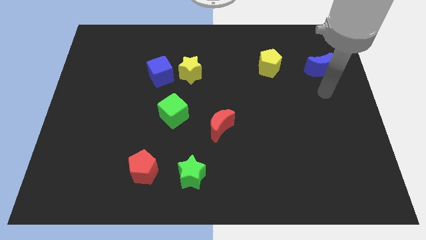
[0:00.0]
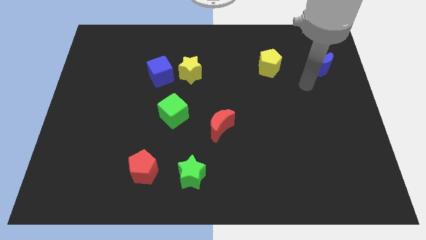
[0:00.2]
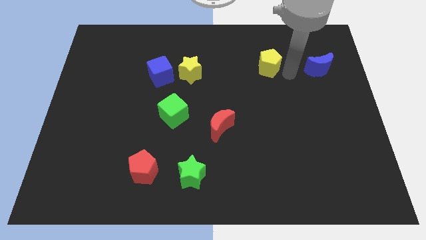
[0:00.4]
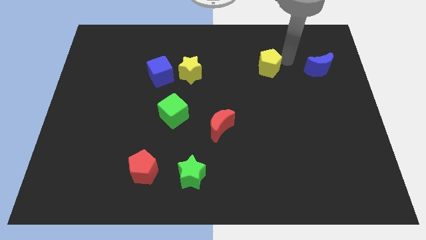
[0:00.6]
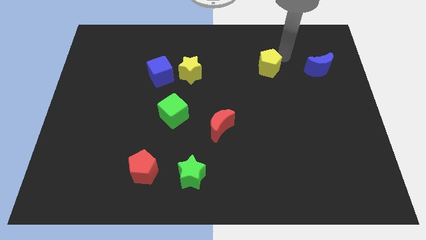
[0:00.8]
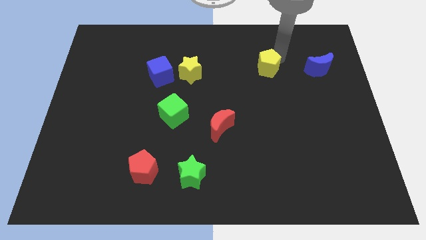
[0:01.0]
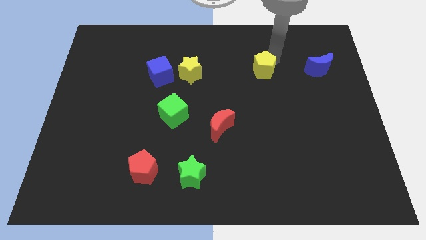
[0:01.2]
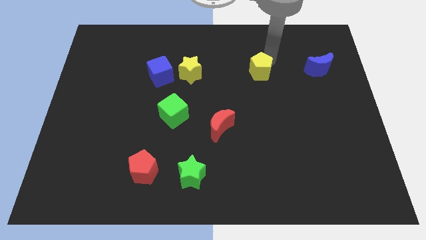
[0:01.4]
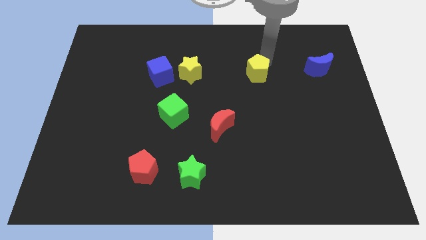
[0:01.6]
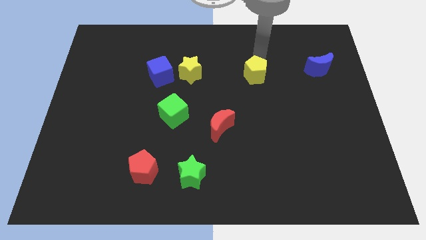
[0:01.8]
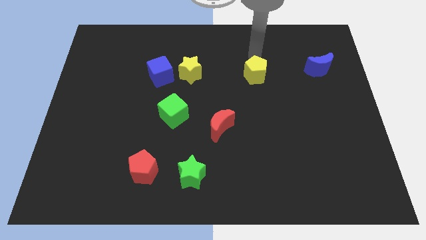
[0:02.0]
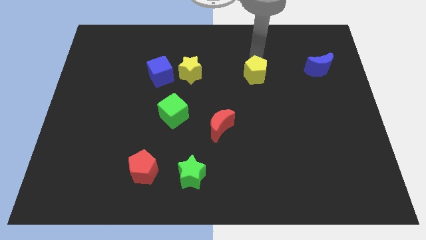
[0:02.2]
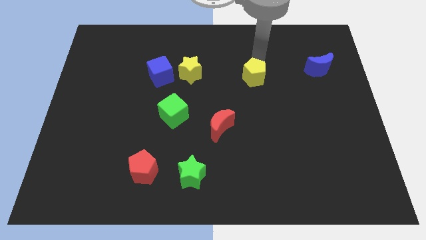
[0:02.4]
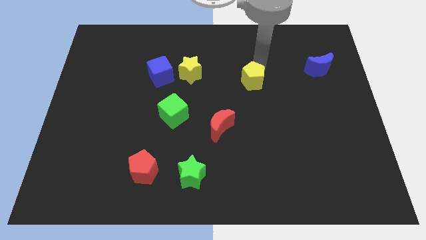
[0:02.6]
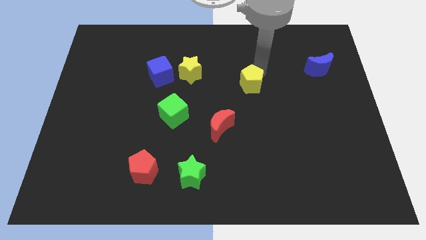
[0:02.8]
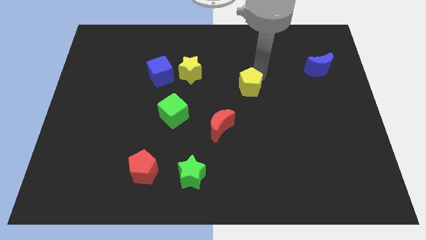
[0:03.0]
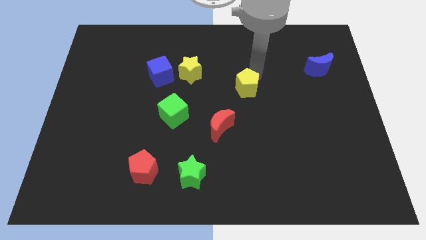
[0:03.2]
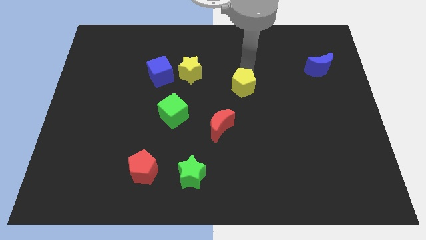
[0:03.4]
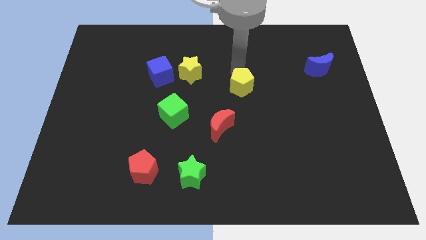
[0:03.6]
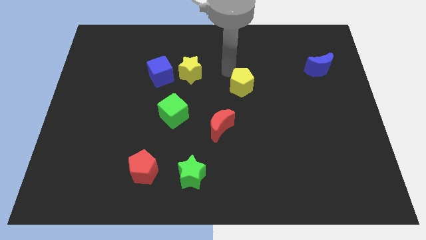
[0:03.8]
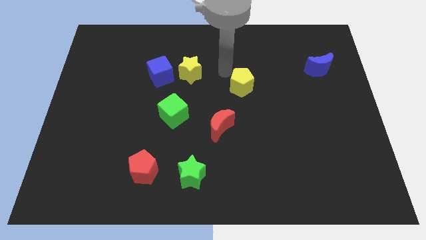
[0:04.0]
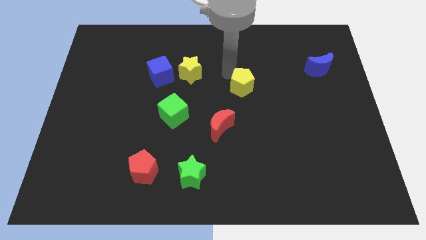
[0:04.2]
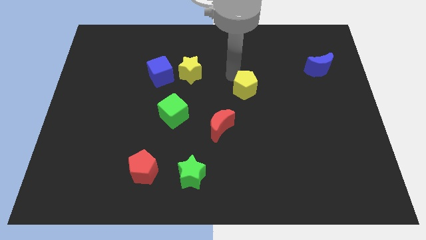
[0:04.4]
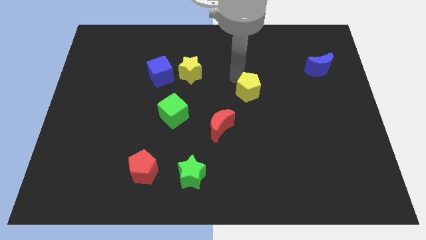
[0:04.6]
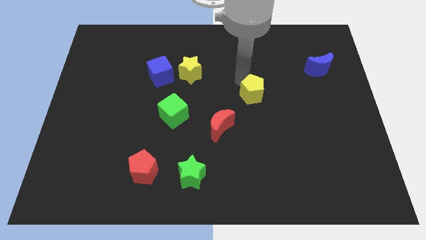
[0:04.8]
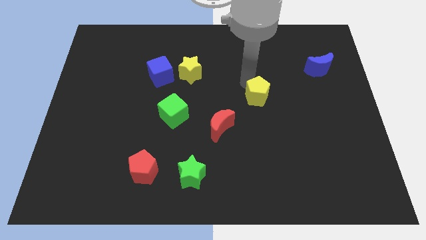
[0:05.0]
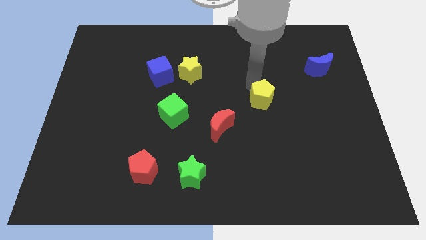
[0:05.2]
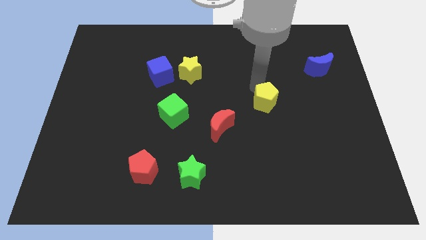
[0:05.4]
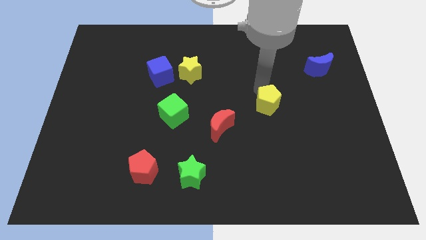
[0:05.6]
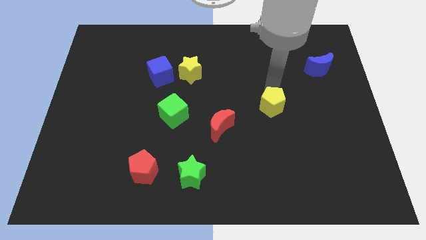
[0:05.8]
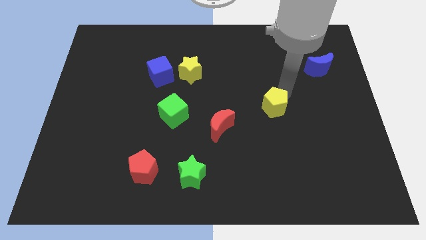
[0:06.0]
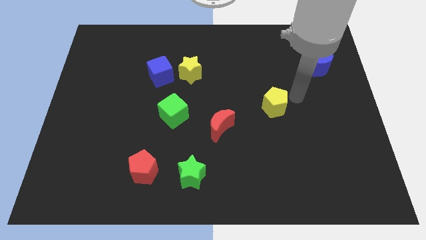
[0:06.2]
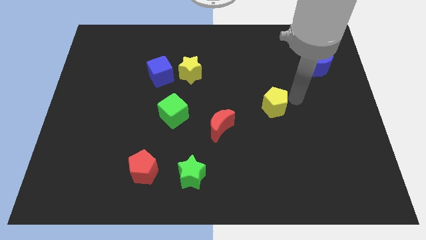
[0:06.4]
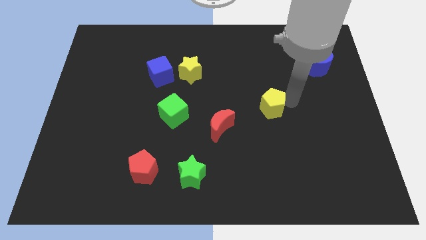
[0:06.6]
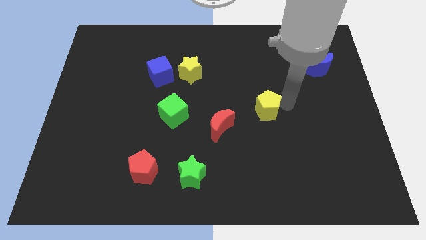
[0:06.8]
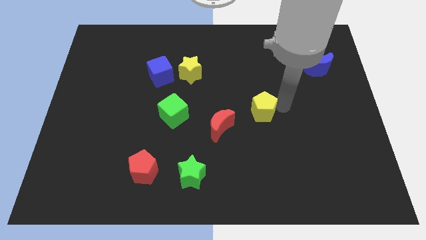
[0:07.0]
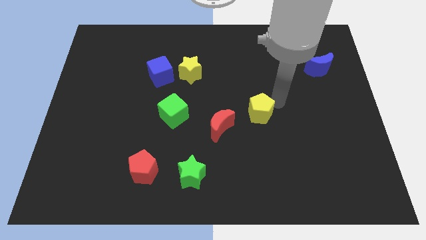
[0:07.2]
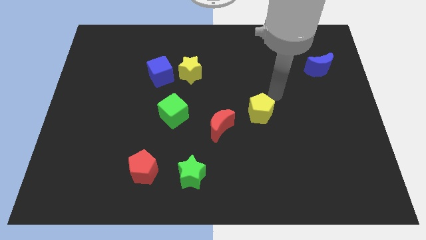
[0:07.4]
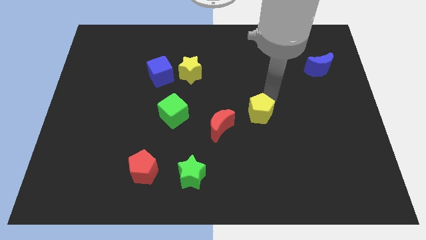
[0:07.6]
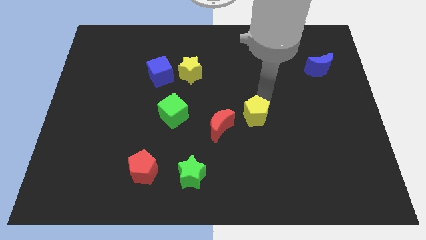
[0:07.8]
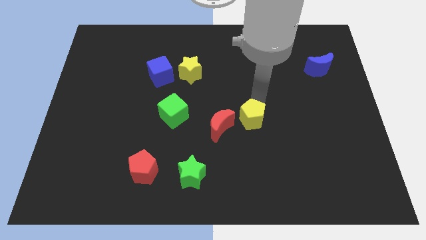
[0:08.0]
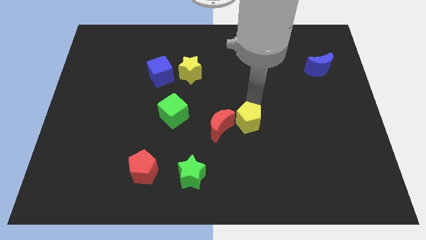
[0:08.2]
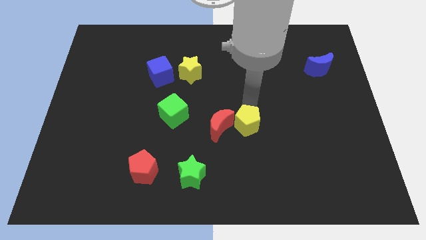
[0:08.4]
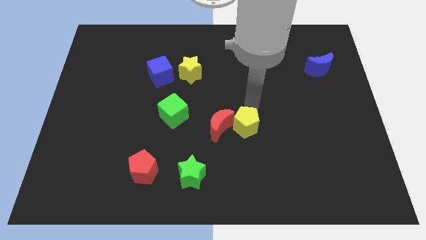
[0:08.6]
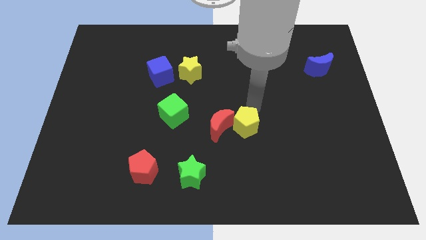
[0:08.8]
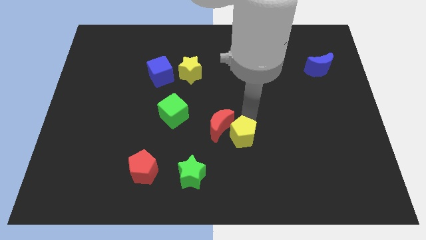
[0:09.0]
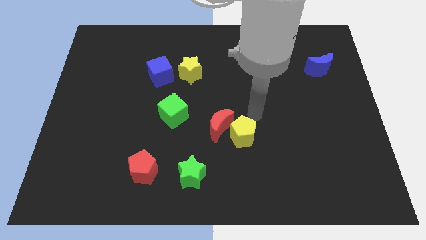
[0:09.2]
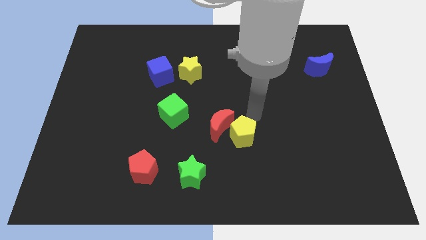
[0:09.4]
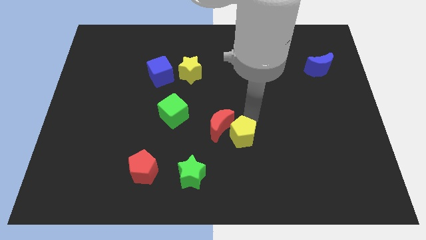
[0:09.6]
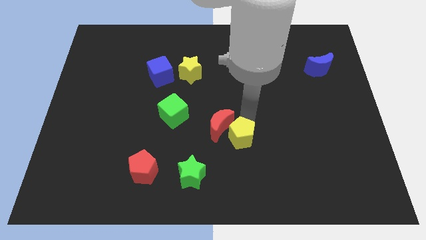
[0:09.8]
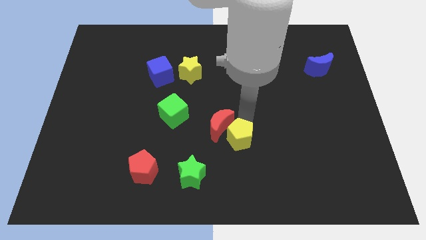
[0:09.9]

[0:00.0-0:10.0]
push the yellow pentagon below the red moon

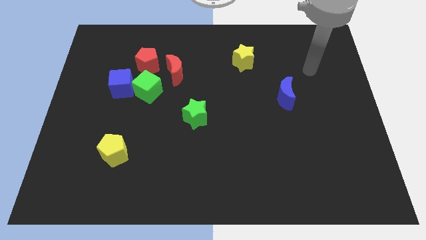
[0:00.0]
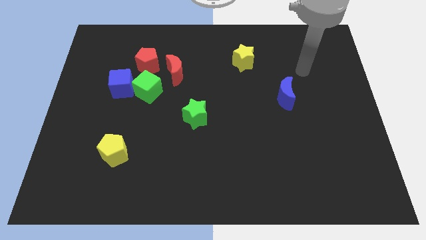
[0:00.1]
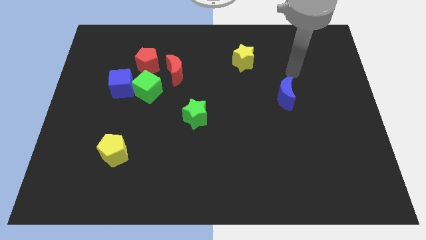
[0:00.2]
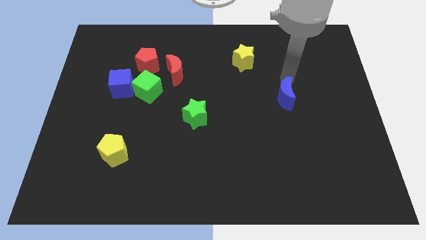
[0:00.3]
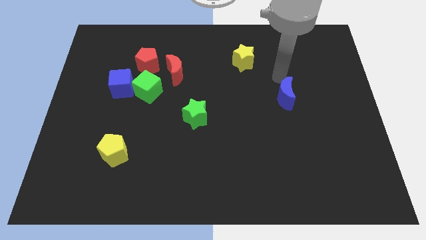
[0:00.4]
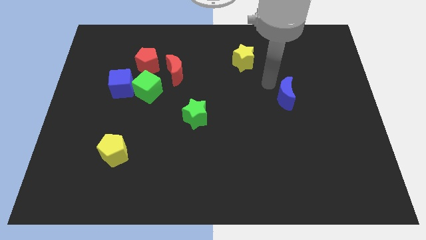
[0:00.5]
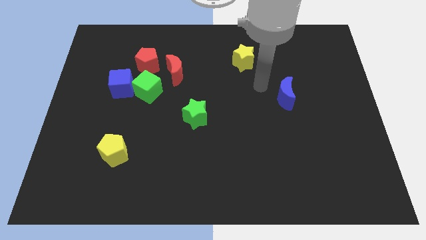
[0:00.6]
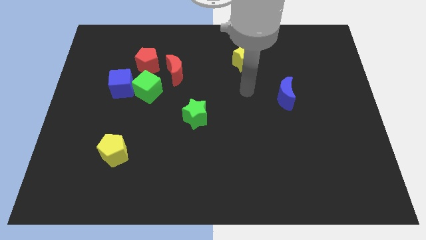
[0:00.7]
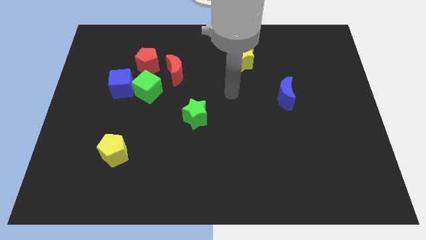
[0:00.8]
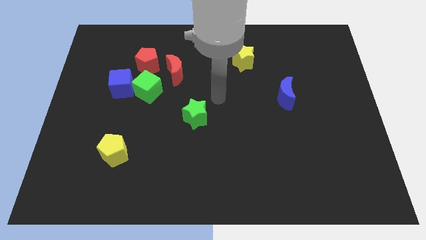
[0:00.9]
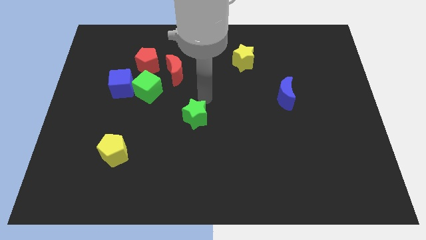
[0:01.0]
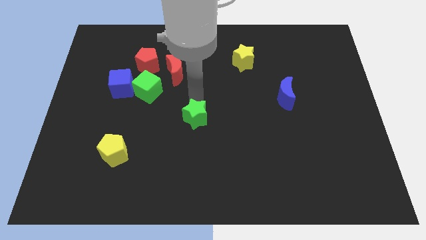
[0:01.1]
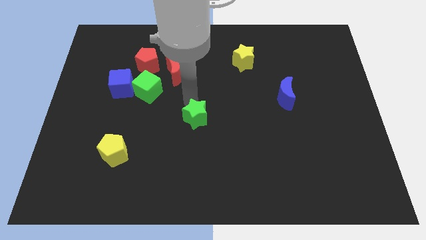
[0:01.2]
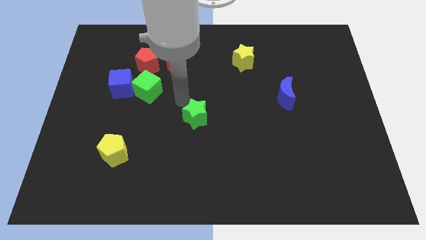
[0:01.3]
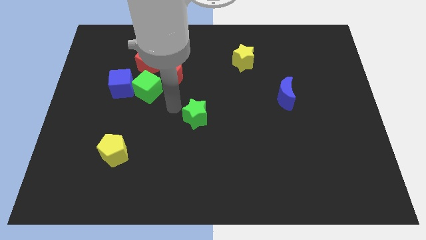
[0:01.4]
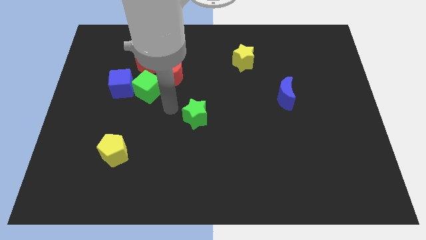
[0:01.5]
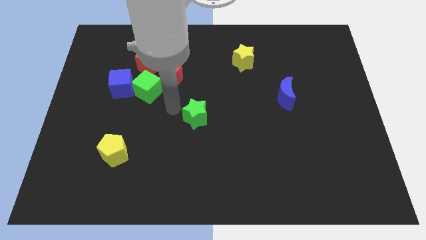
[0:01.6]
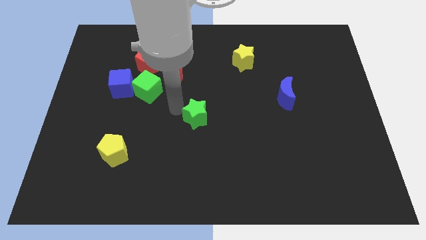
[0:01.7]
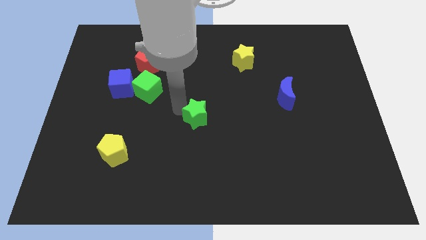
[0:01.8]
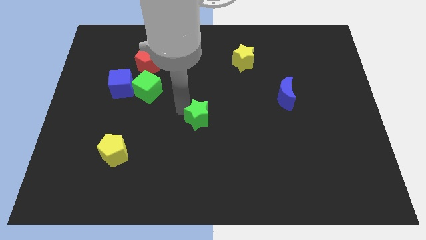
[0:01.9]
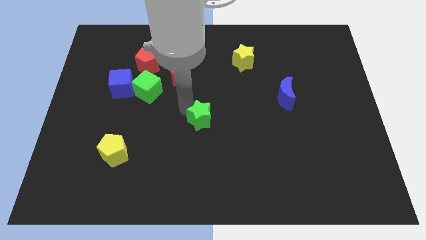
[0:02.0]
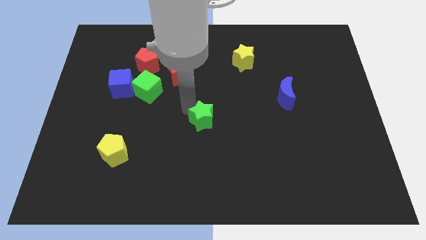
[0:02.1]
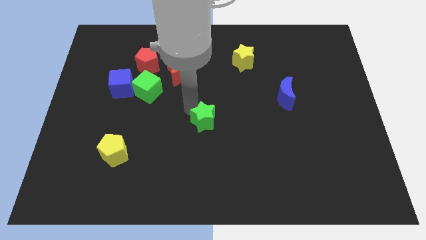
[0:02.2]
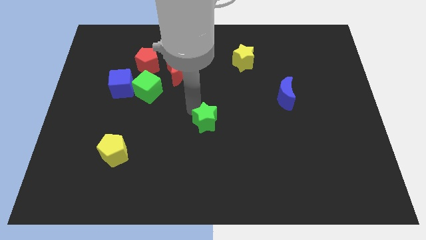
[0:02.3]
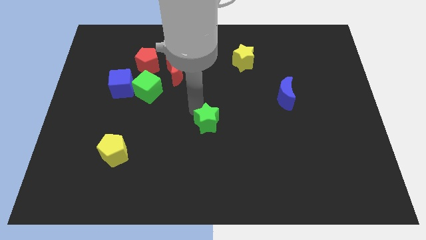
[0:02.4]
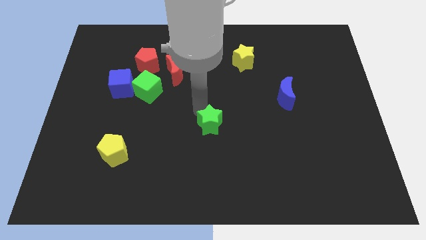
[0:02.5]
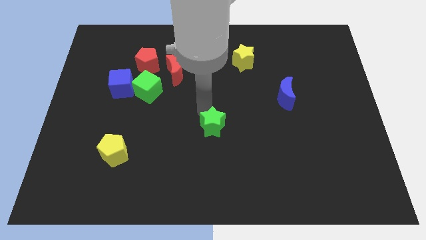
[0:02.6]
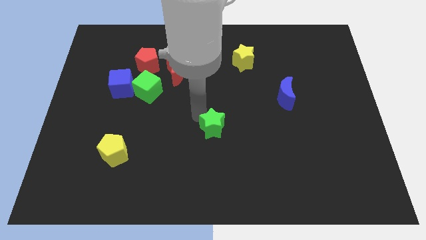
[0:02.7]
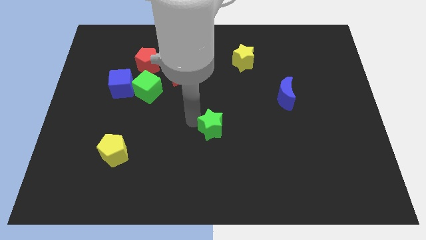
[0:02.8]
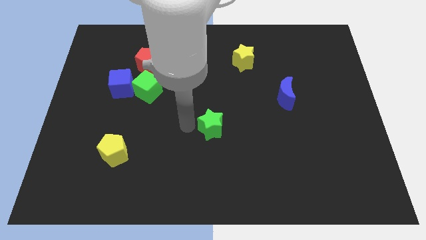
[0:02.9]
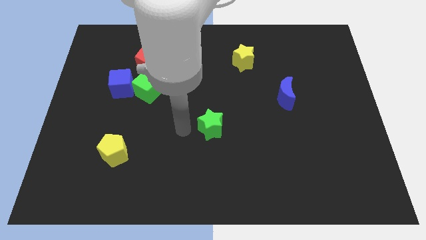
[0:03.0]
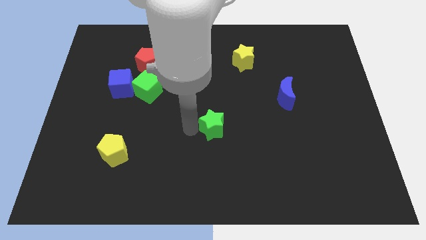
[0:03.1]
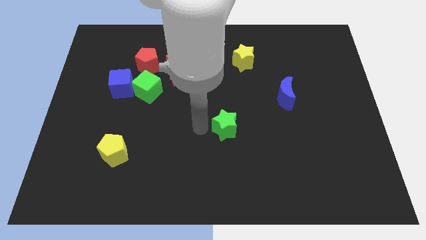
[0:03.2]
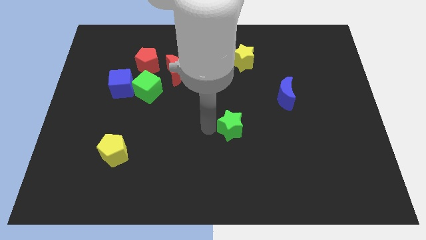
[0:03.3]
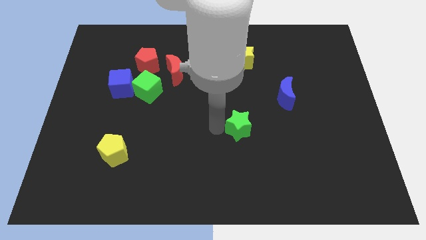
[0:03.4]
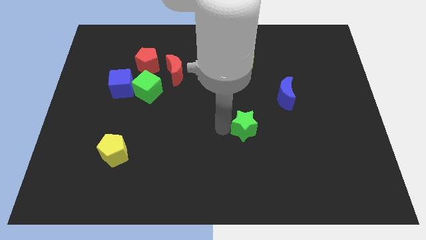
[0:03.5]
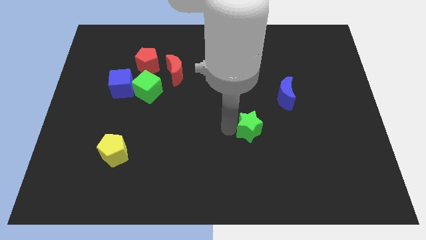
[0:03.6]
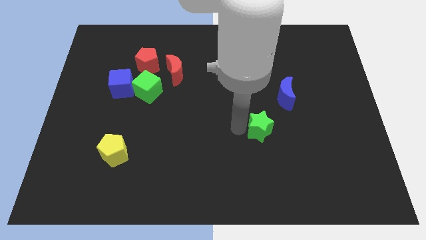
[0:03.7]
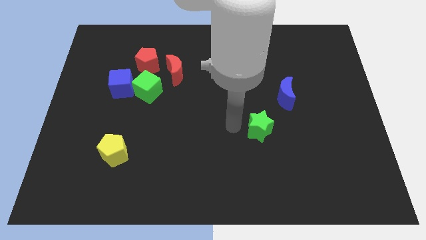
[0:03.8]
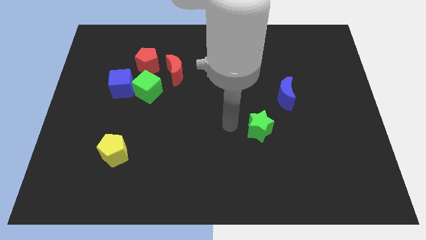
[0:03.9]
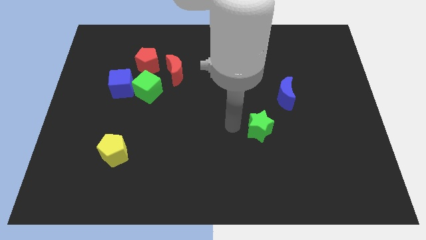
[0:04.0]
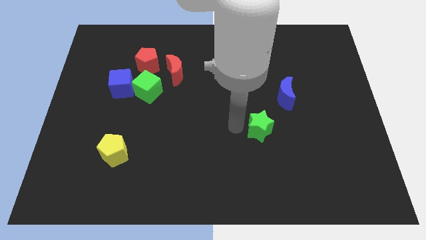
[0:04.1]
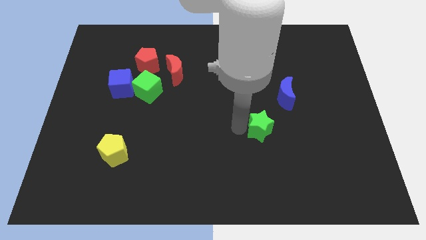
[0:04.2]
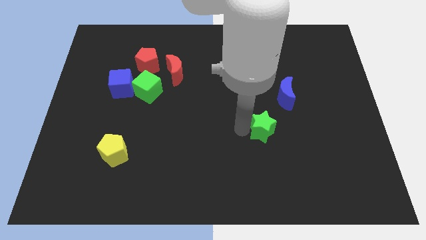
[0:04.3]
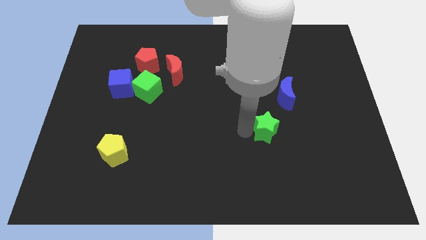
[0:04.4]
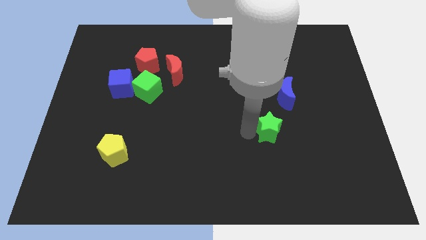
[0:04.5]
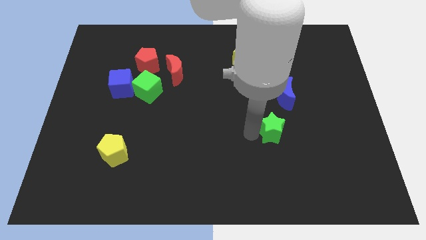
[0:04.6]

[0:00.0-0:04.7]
move the green star below the blue moon
